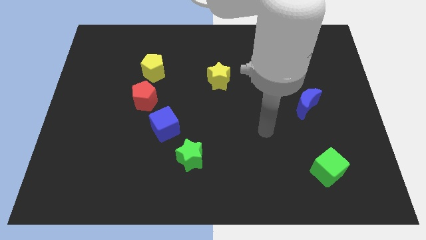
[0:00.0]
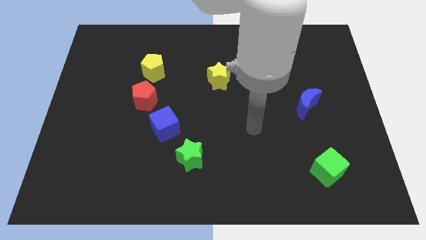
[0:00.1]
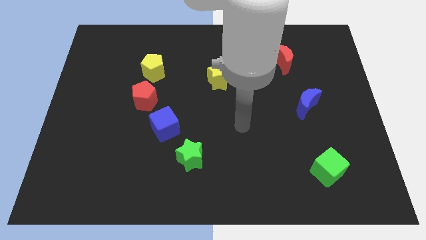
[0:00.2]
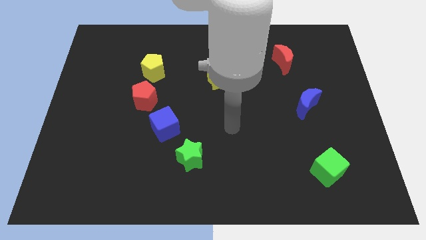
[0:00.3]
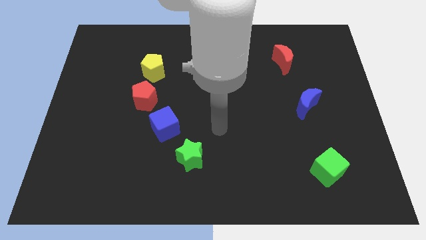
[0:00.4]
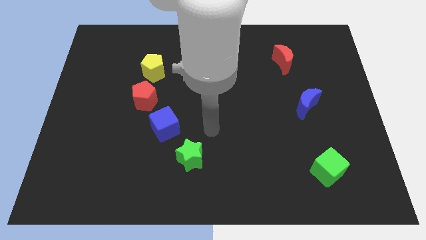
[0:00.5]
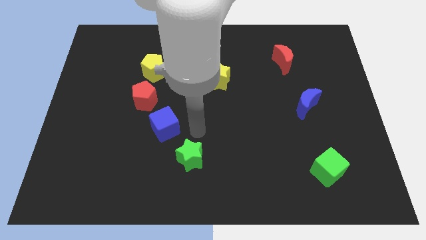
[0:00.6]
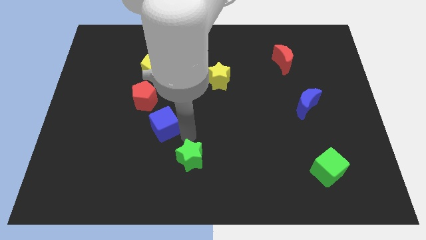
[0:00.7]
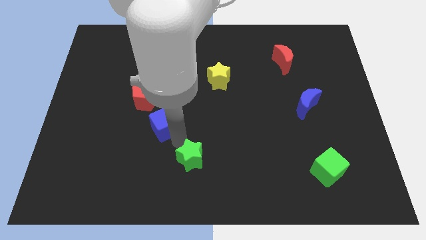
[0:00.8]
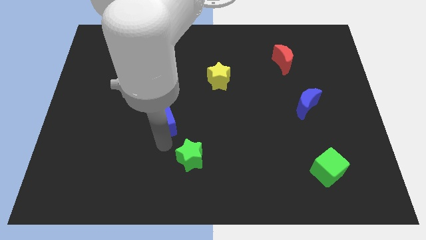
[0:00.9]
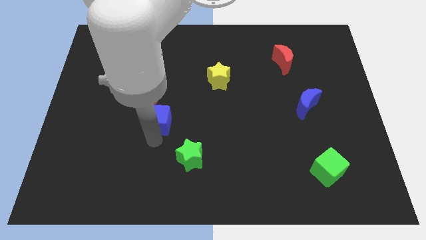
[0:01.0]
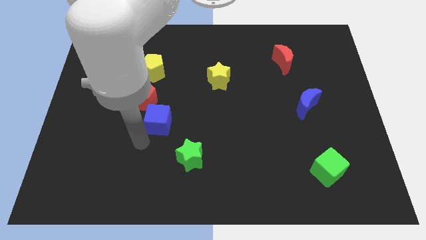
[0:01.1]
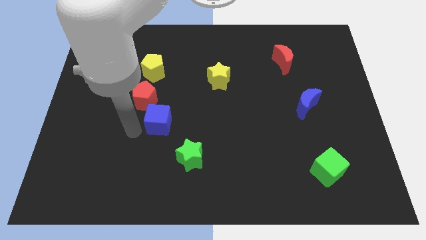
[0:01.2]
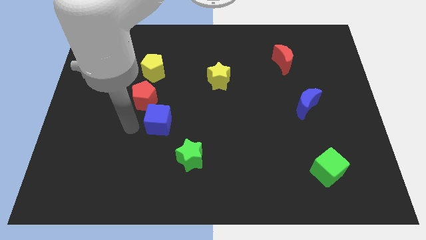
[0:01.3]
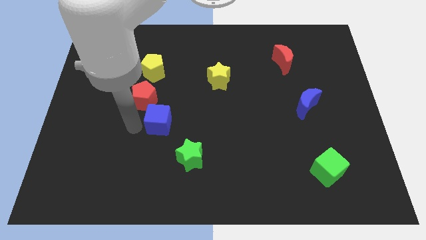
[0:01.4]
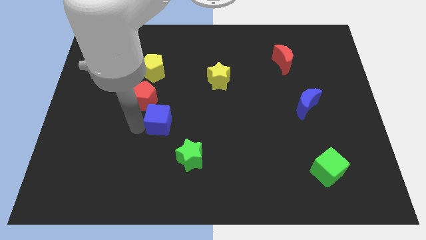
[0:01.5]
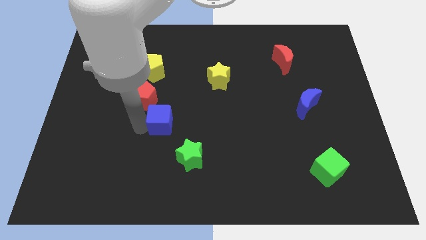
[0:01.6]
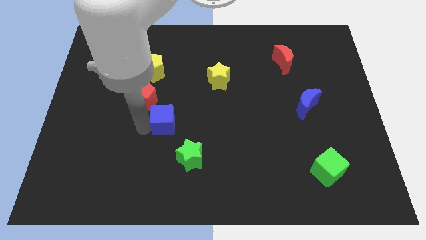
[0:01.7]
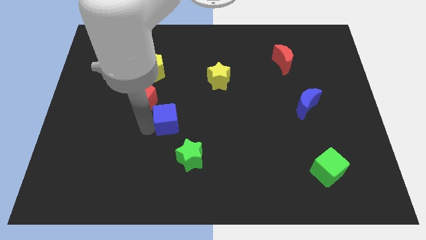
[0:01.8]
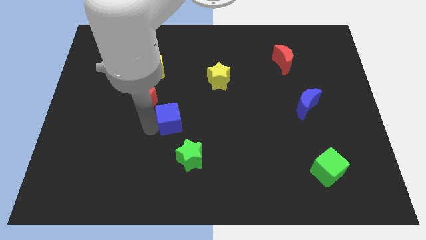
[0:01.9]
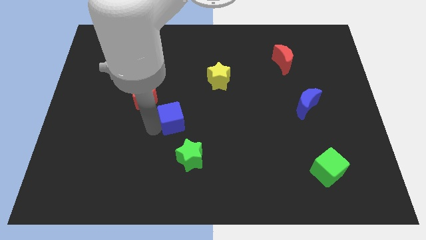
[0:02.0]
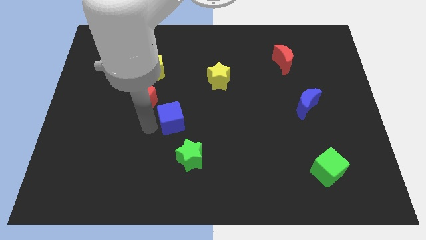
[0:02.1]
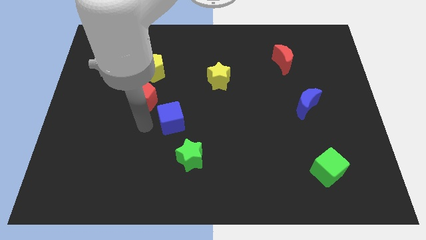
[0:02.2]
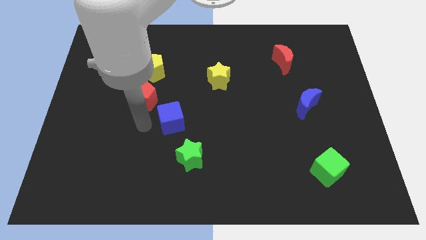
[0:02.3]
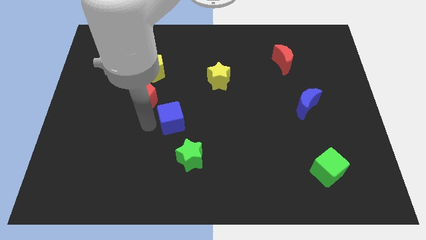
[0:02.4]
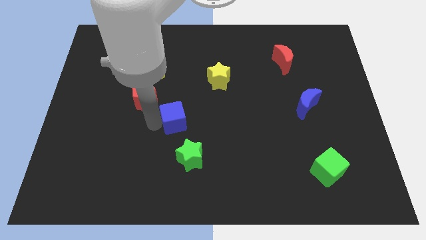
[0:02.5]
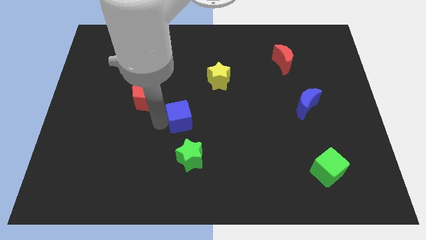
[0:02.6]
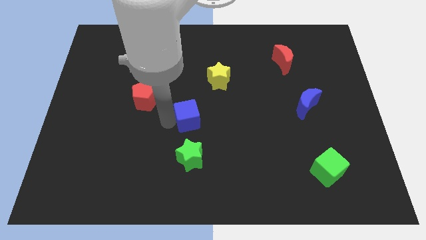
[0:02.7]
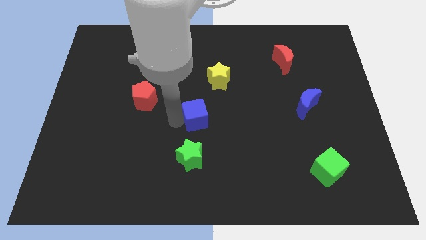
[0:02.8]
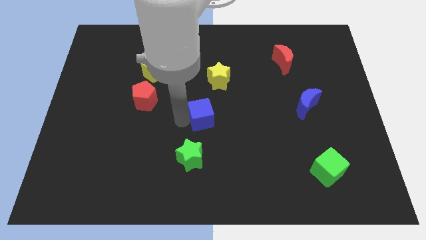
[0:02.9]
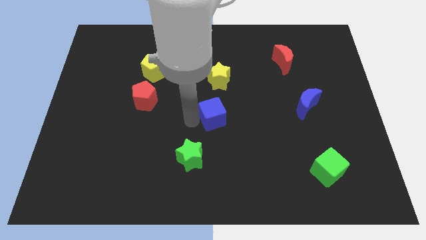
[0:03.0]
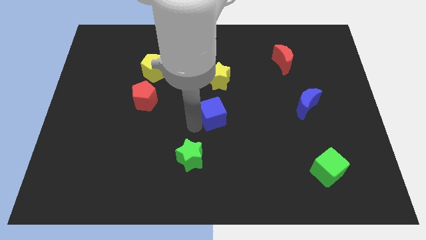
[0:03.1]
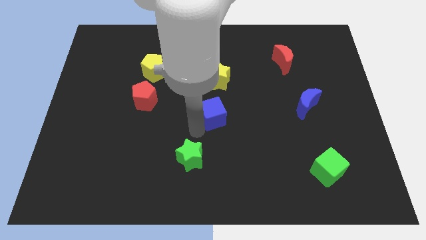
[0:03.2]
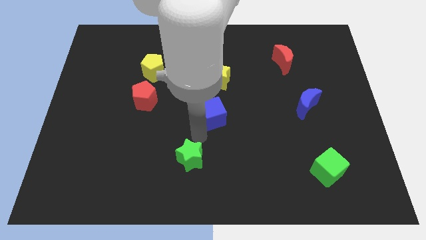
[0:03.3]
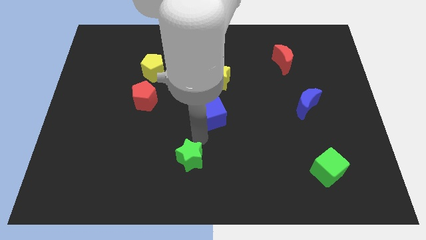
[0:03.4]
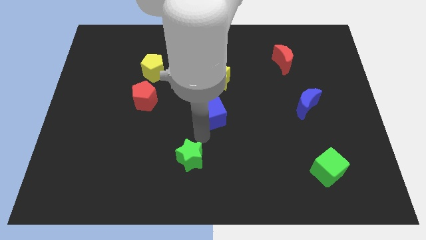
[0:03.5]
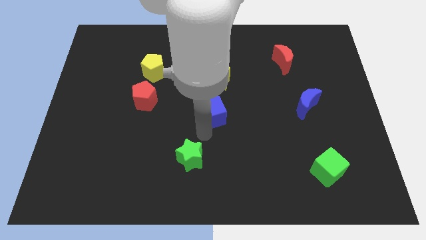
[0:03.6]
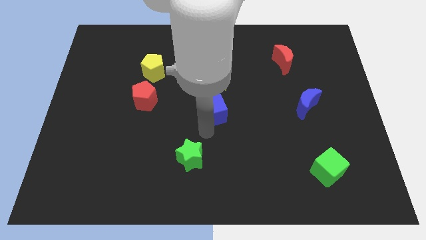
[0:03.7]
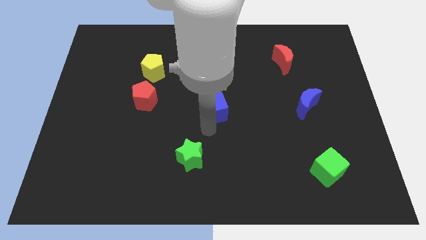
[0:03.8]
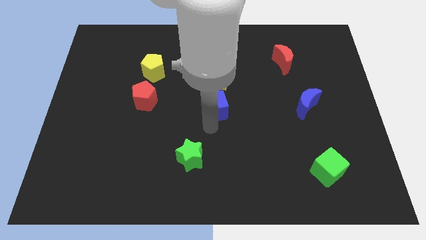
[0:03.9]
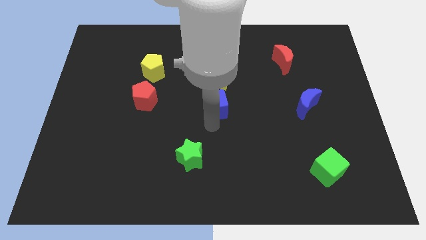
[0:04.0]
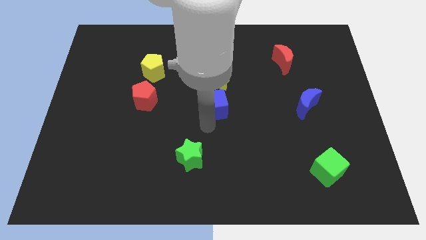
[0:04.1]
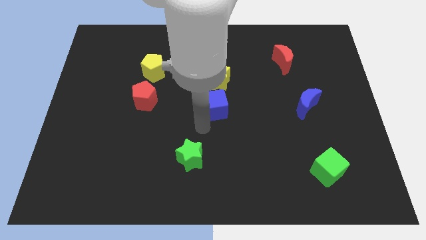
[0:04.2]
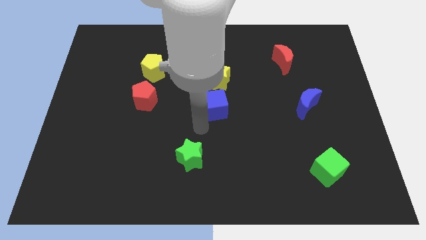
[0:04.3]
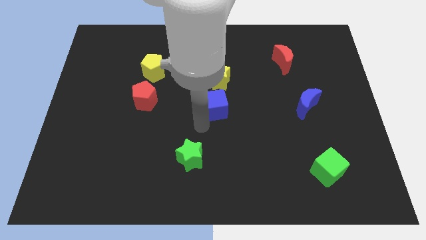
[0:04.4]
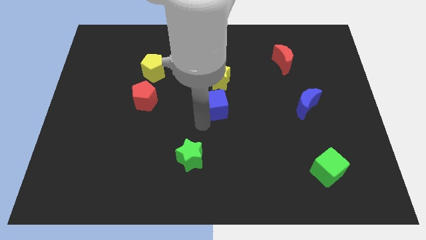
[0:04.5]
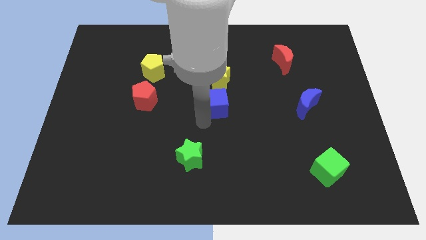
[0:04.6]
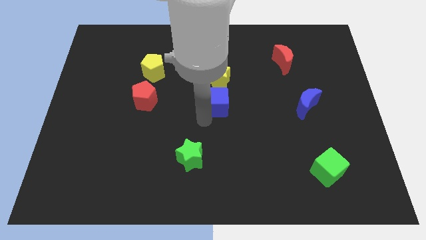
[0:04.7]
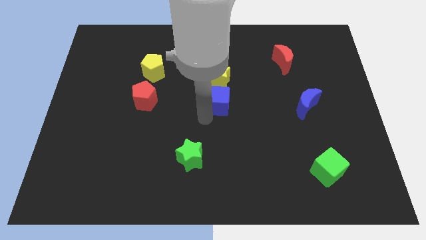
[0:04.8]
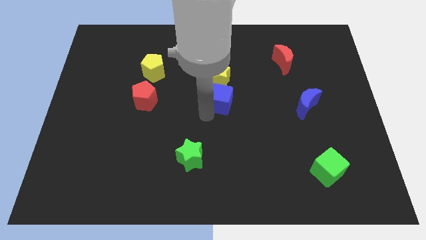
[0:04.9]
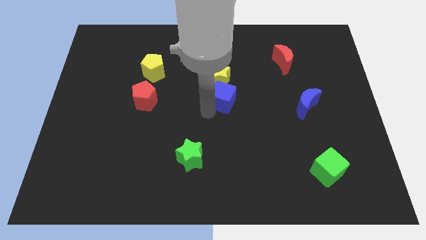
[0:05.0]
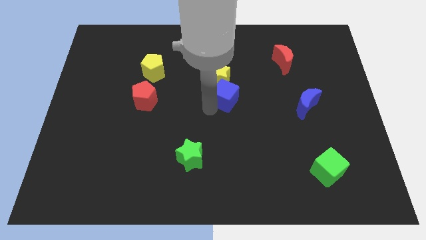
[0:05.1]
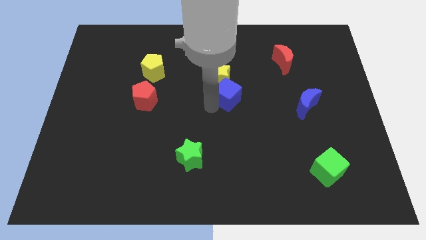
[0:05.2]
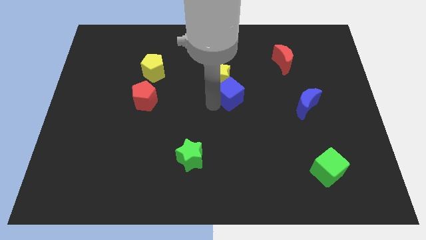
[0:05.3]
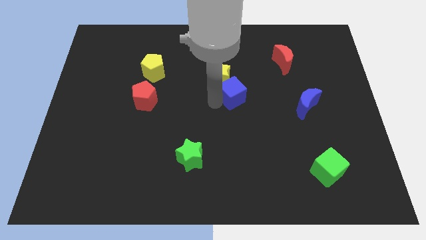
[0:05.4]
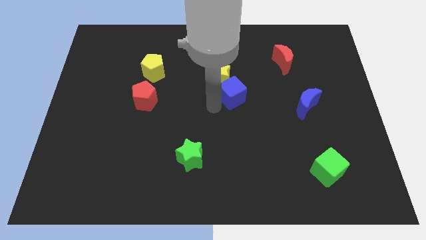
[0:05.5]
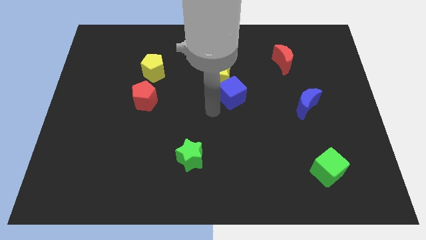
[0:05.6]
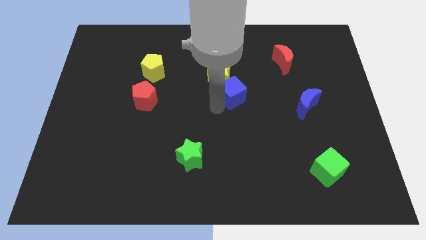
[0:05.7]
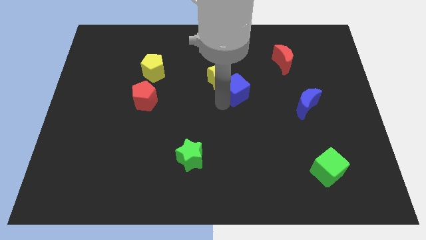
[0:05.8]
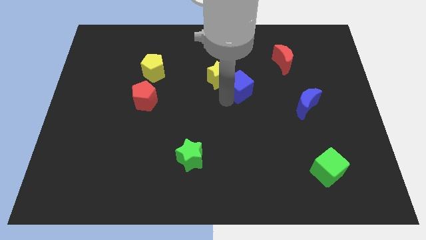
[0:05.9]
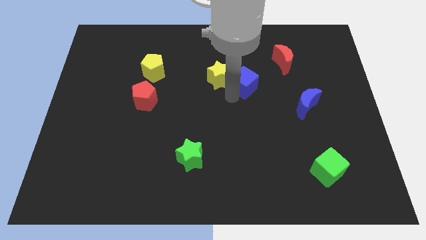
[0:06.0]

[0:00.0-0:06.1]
slide the blue cube upwards and then to the right

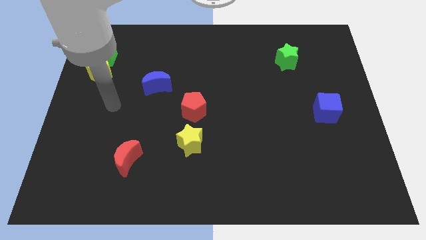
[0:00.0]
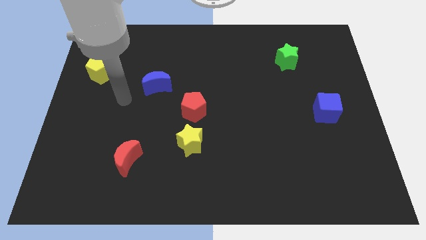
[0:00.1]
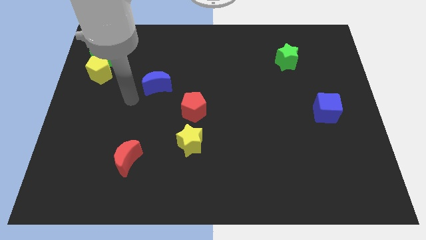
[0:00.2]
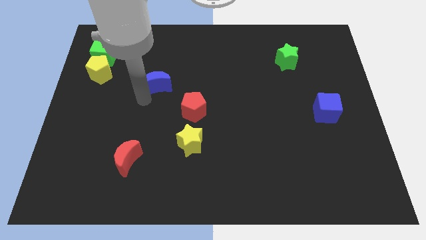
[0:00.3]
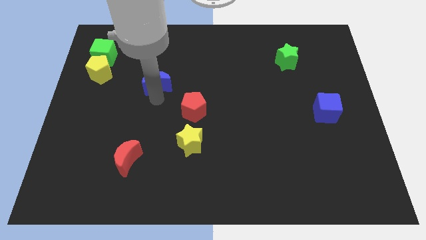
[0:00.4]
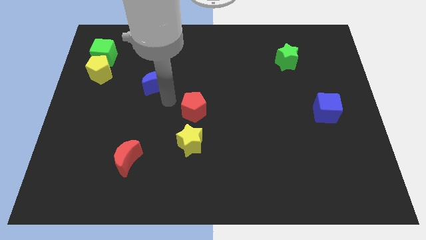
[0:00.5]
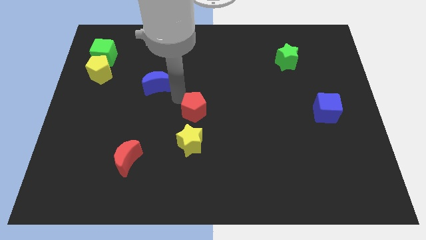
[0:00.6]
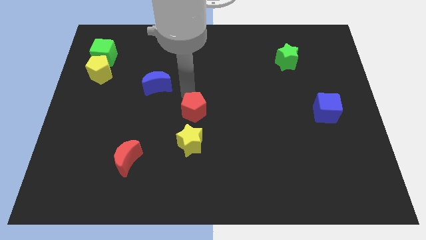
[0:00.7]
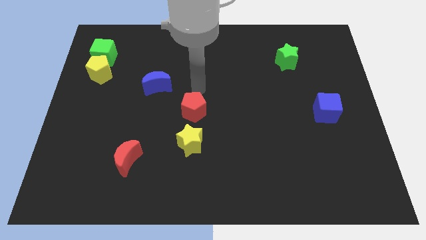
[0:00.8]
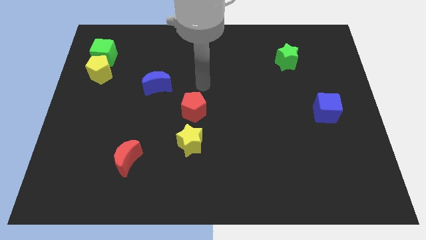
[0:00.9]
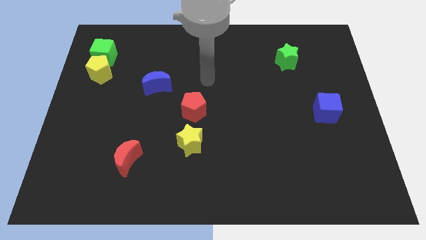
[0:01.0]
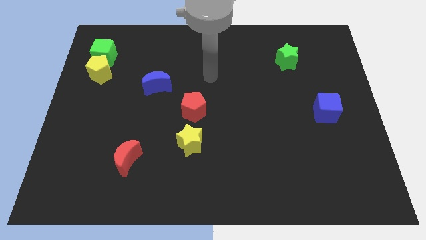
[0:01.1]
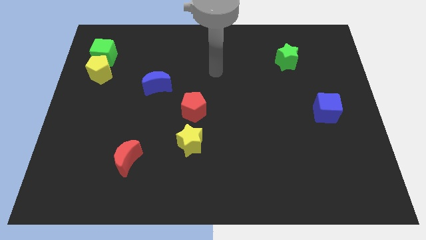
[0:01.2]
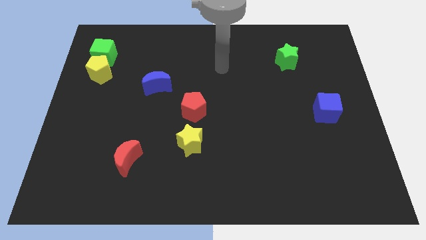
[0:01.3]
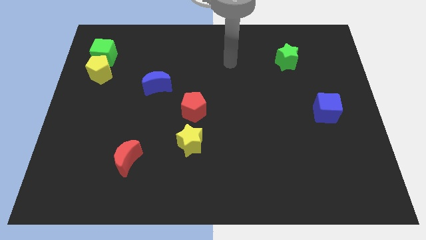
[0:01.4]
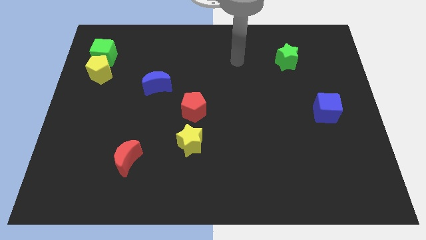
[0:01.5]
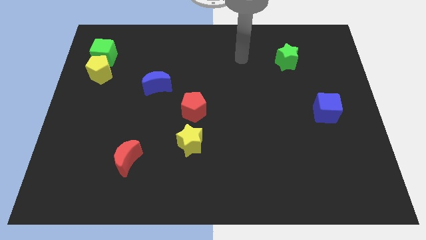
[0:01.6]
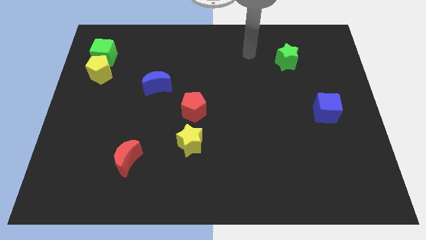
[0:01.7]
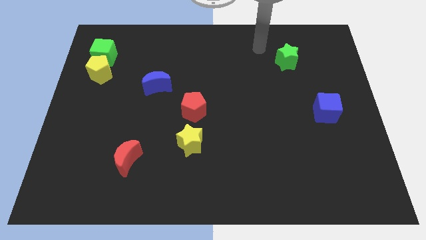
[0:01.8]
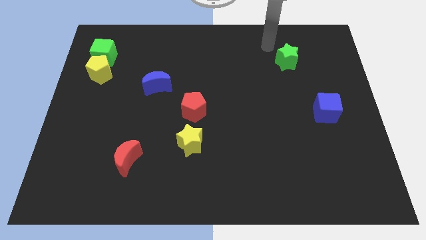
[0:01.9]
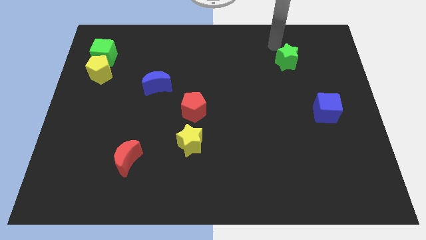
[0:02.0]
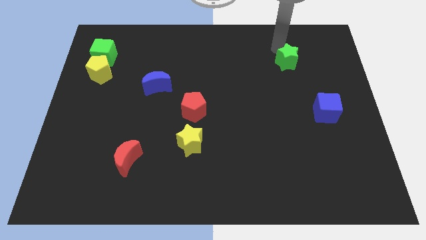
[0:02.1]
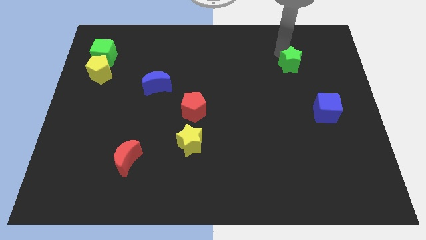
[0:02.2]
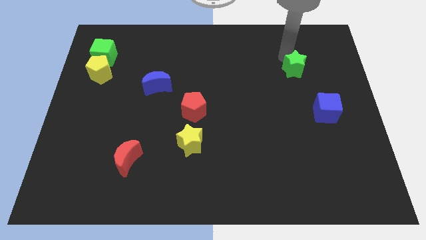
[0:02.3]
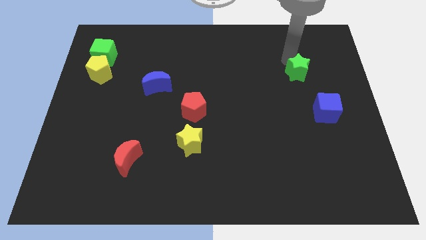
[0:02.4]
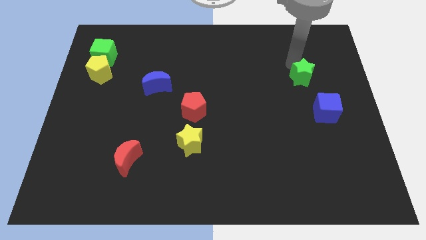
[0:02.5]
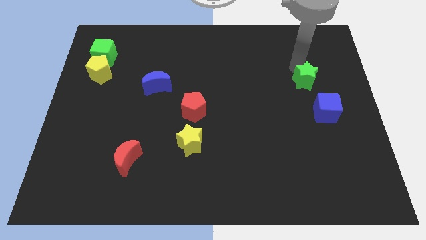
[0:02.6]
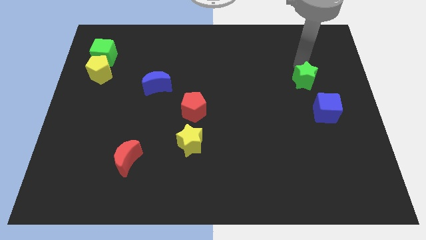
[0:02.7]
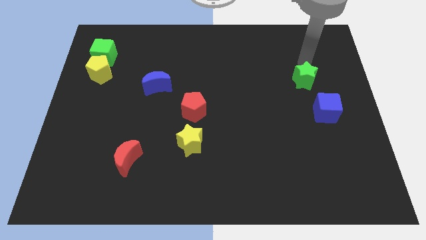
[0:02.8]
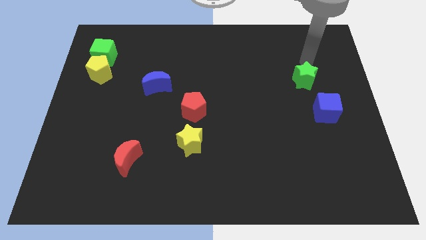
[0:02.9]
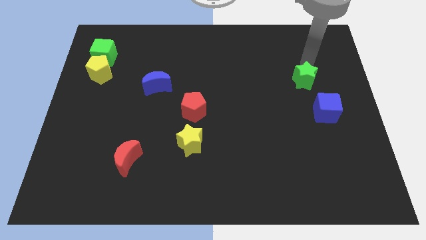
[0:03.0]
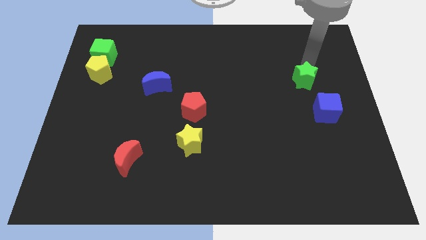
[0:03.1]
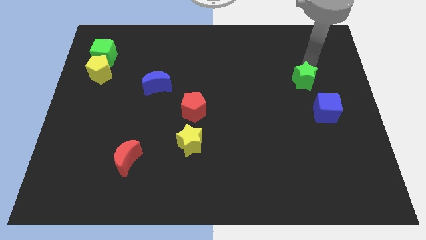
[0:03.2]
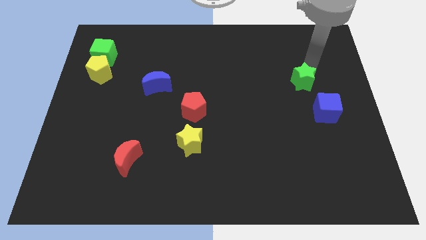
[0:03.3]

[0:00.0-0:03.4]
push the green star somewhat downwards
